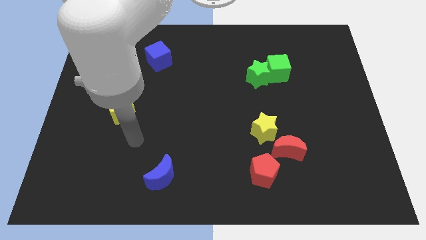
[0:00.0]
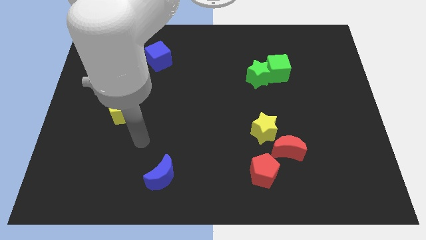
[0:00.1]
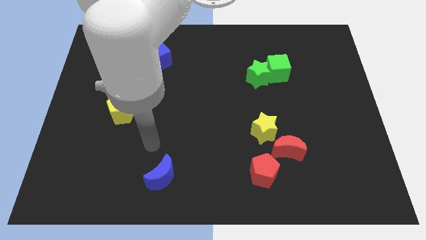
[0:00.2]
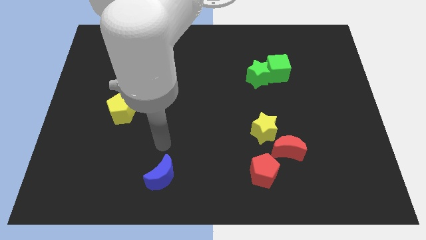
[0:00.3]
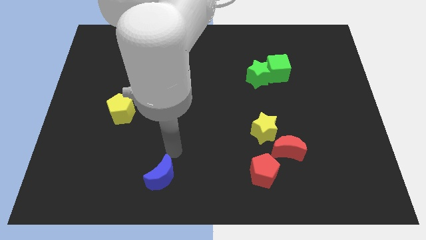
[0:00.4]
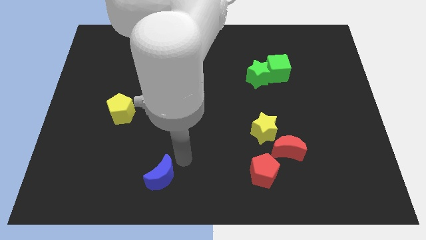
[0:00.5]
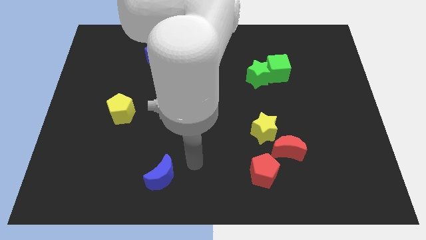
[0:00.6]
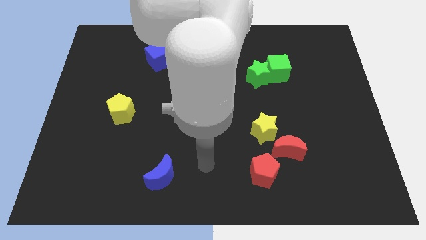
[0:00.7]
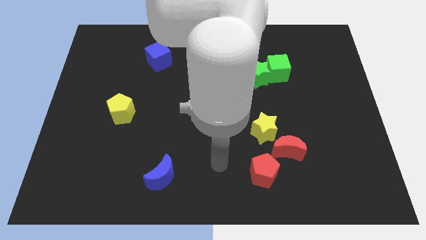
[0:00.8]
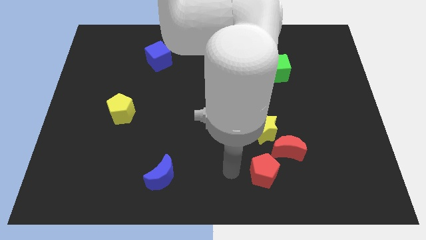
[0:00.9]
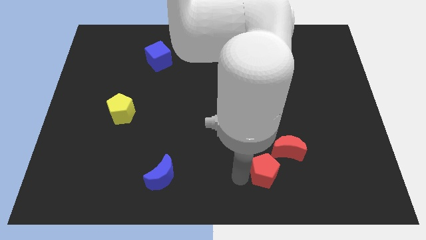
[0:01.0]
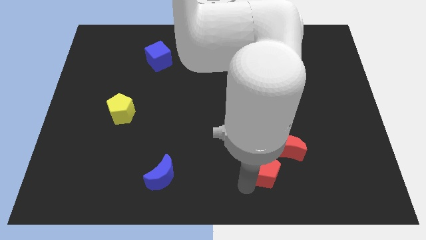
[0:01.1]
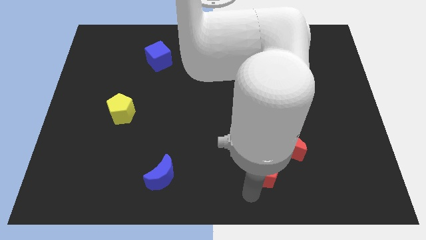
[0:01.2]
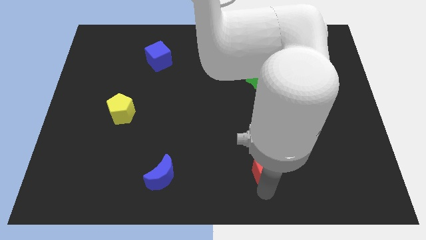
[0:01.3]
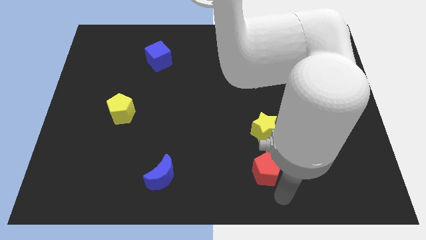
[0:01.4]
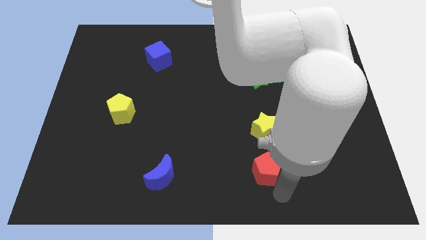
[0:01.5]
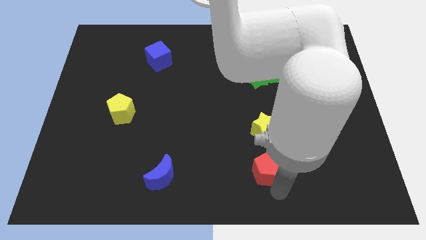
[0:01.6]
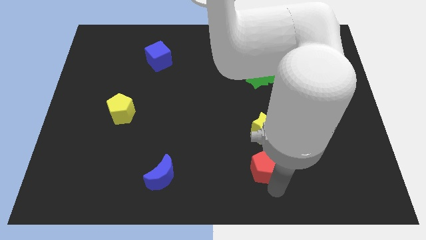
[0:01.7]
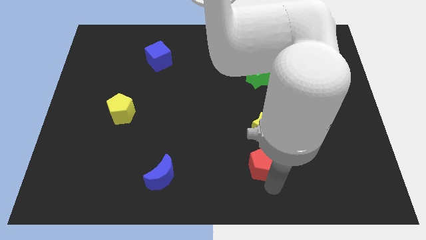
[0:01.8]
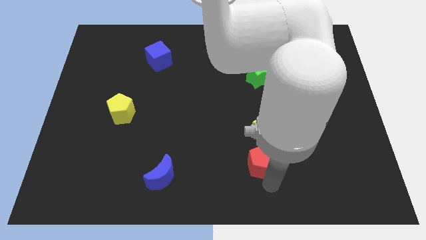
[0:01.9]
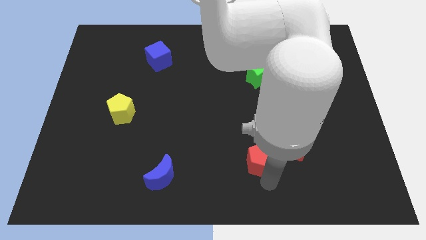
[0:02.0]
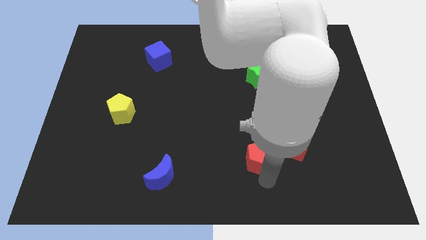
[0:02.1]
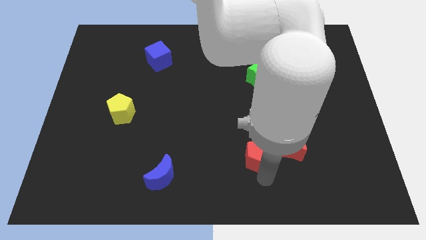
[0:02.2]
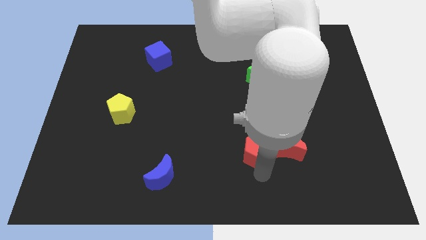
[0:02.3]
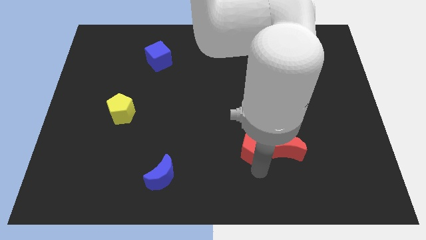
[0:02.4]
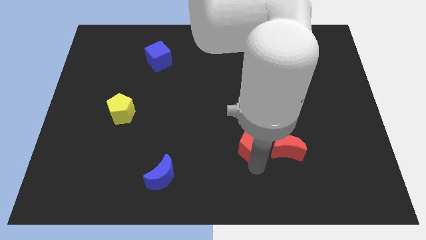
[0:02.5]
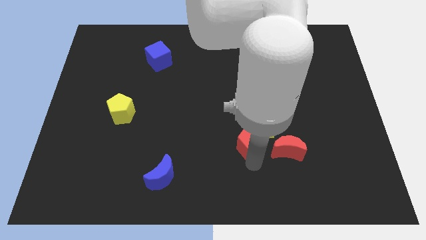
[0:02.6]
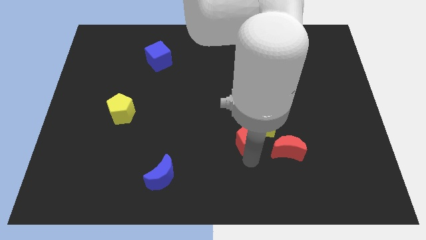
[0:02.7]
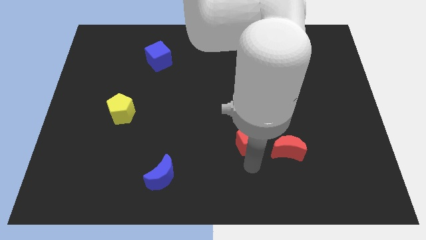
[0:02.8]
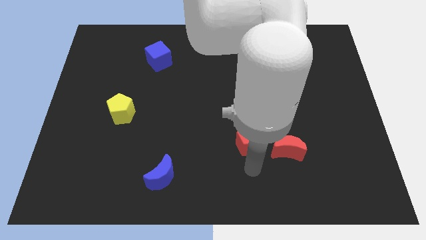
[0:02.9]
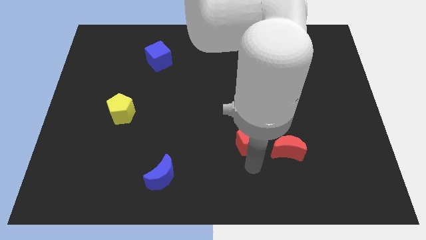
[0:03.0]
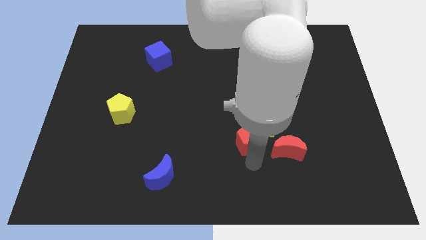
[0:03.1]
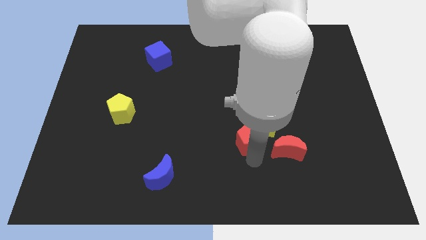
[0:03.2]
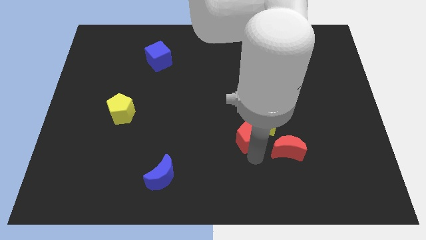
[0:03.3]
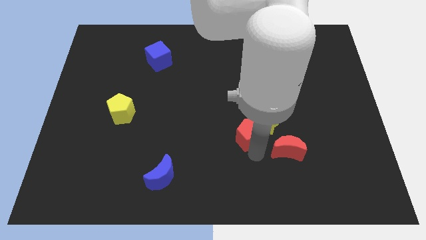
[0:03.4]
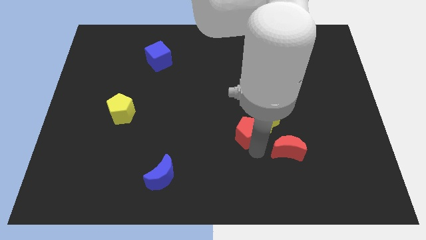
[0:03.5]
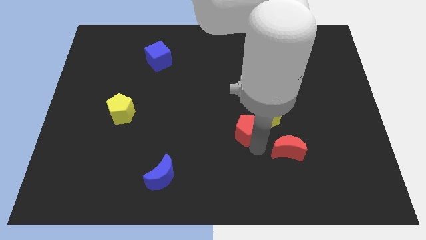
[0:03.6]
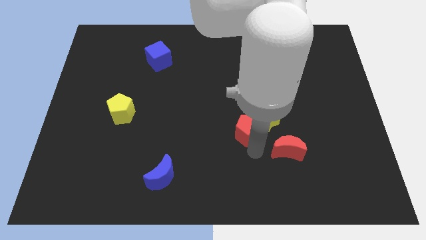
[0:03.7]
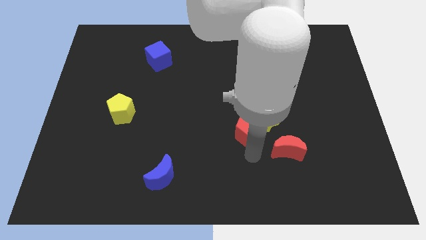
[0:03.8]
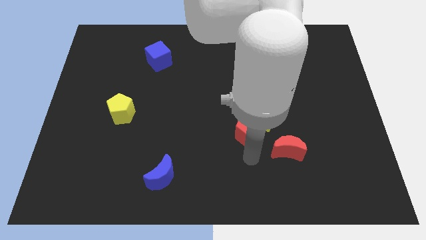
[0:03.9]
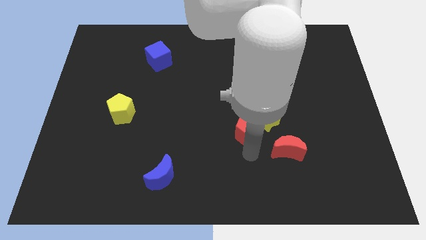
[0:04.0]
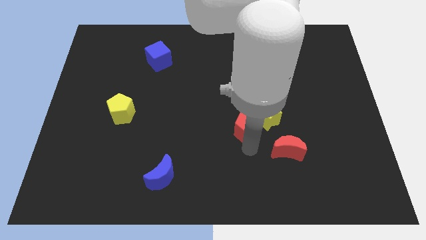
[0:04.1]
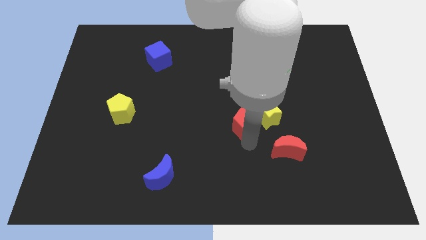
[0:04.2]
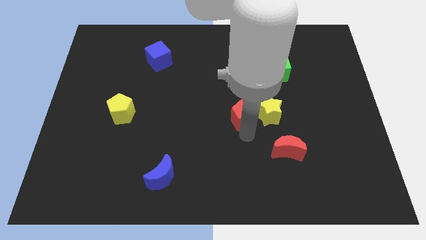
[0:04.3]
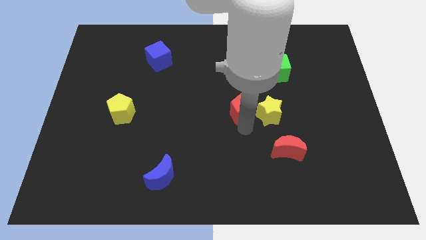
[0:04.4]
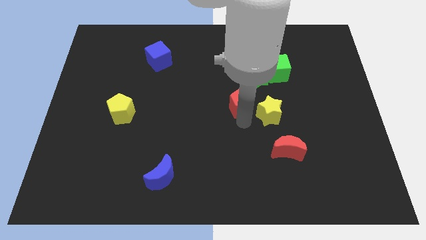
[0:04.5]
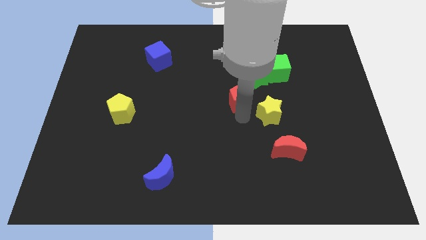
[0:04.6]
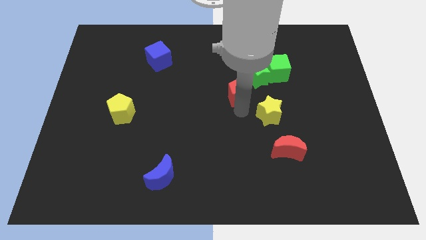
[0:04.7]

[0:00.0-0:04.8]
move the red pentagon upwards

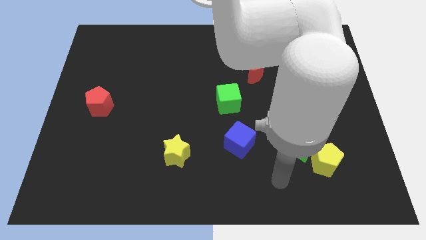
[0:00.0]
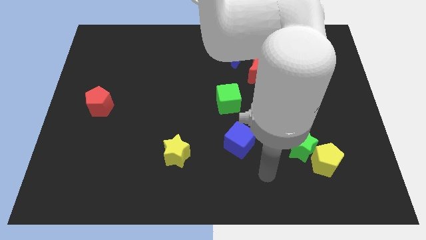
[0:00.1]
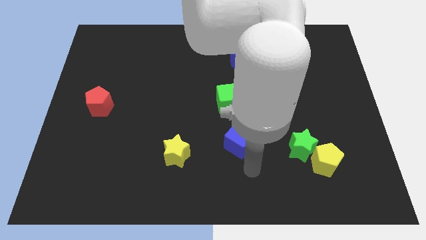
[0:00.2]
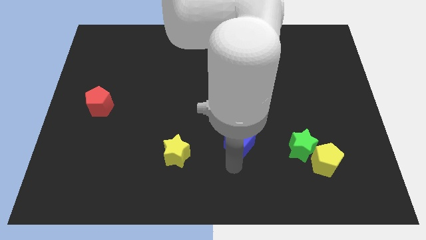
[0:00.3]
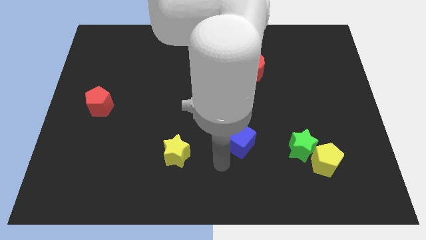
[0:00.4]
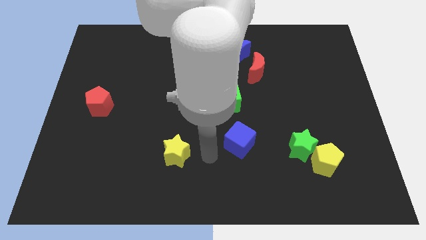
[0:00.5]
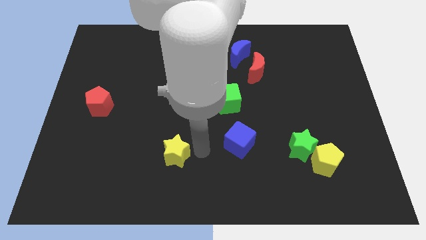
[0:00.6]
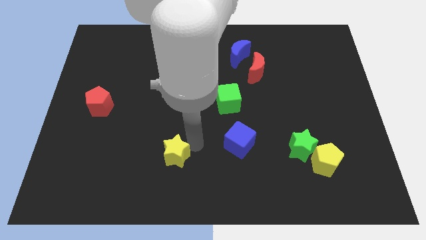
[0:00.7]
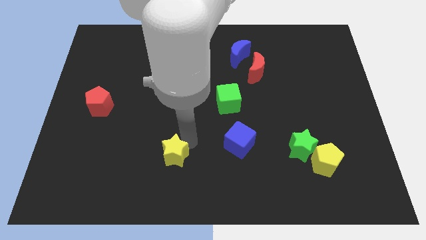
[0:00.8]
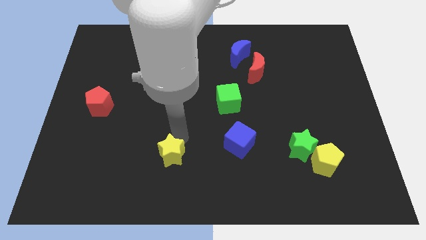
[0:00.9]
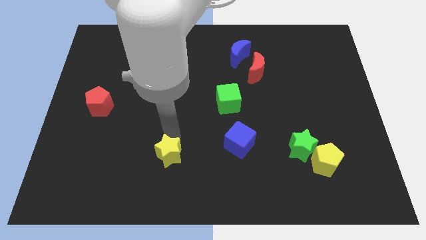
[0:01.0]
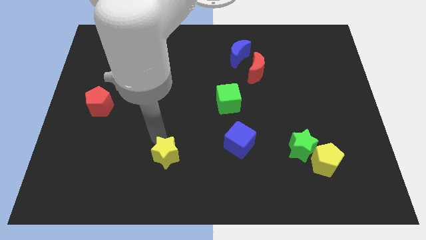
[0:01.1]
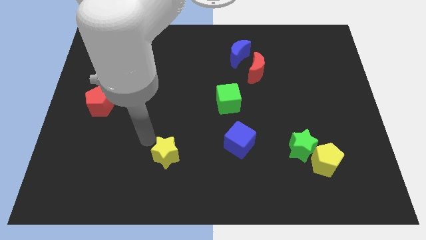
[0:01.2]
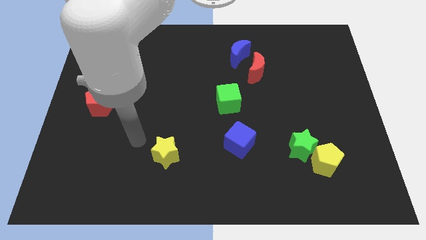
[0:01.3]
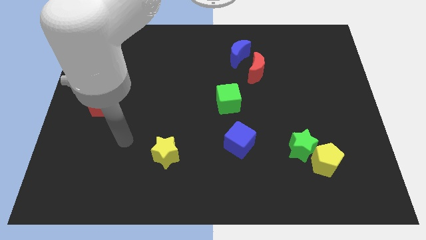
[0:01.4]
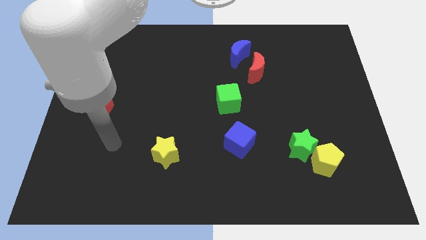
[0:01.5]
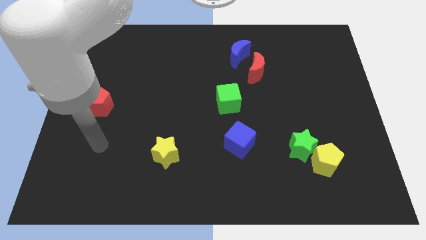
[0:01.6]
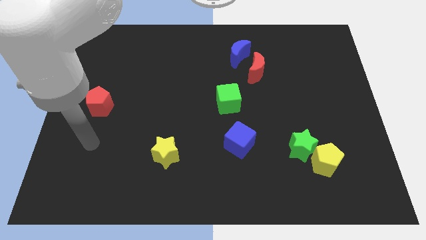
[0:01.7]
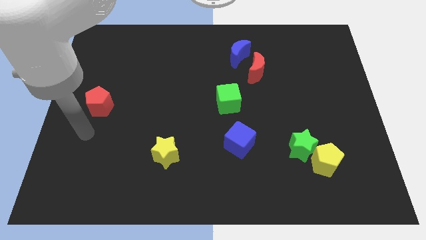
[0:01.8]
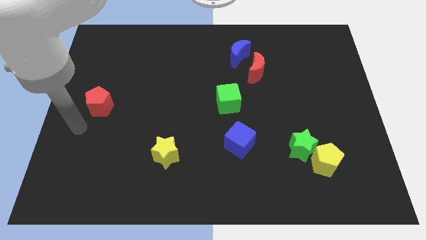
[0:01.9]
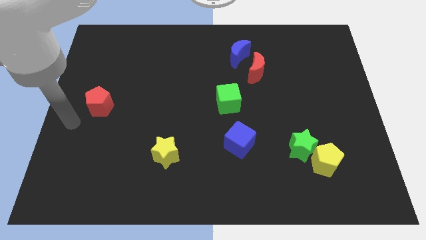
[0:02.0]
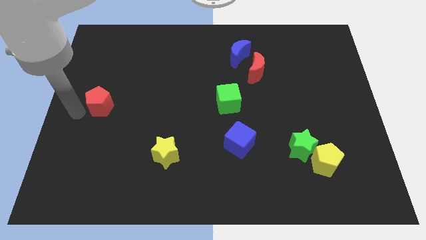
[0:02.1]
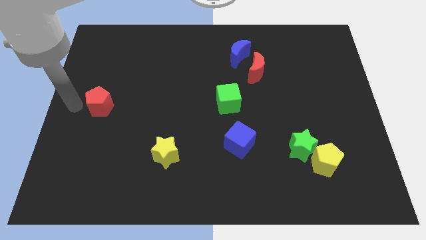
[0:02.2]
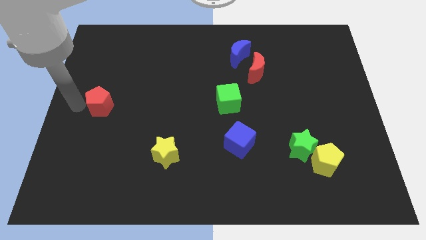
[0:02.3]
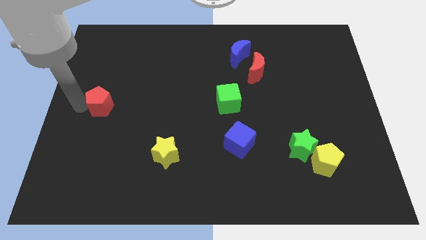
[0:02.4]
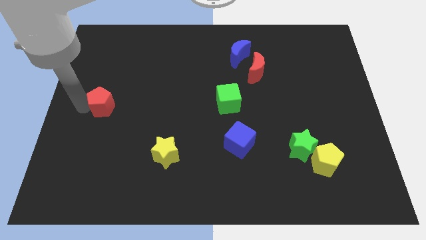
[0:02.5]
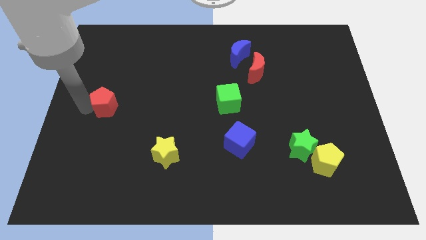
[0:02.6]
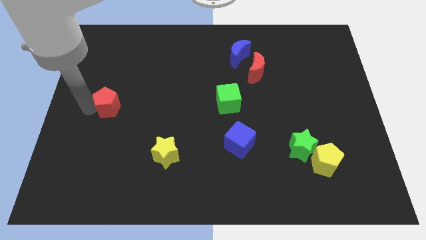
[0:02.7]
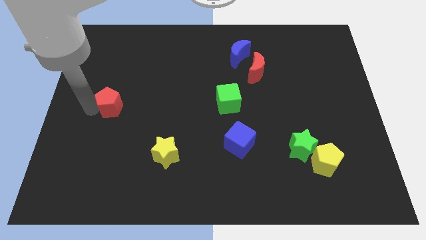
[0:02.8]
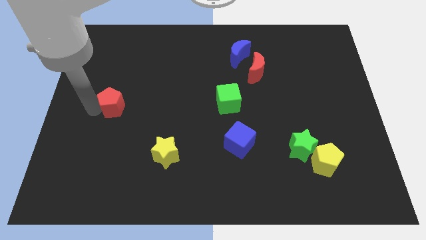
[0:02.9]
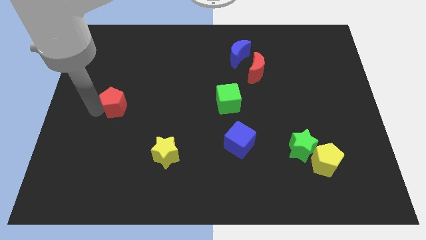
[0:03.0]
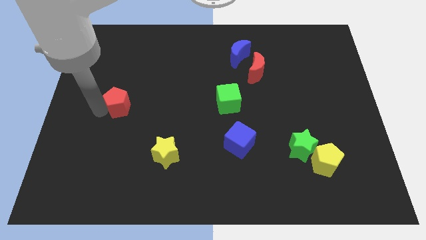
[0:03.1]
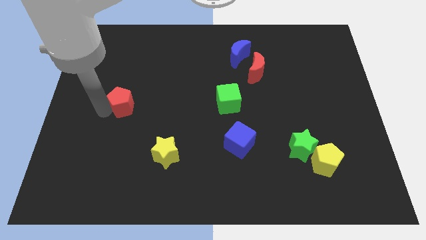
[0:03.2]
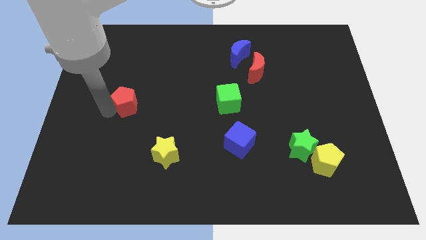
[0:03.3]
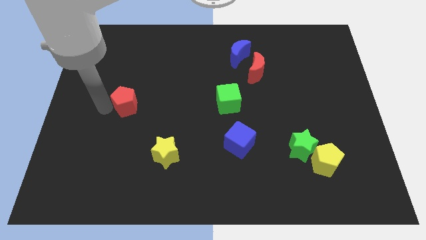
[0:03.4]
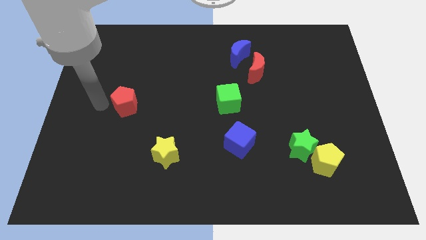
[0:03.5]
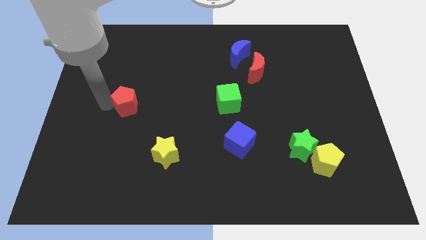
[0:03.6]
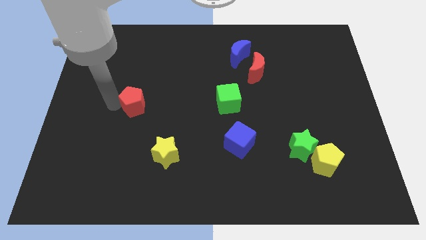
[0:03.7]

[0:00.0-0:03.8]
slightly move the red pentagon right
